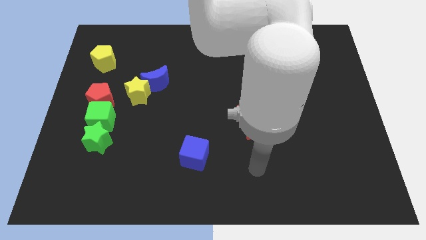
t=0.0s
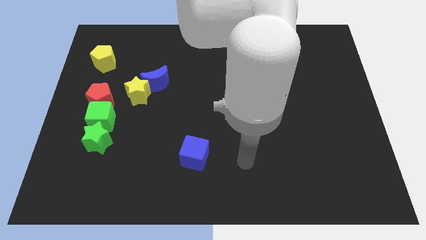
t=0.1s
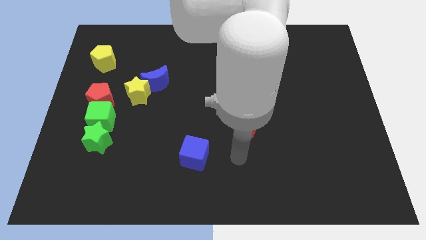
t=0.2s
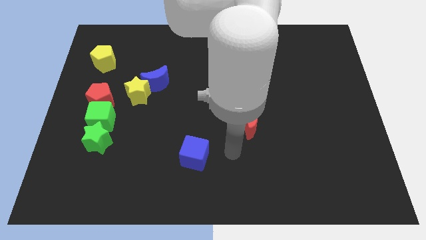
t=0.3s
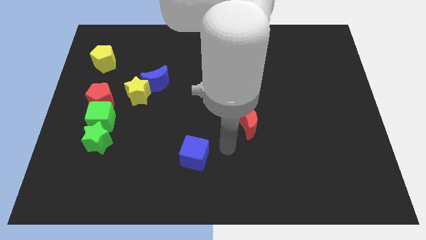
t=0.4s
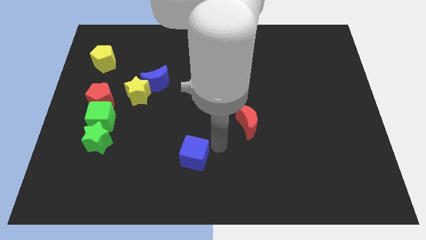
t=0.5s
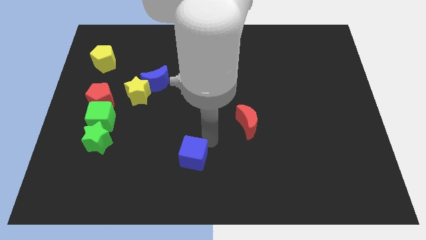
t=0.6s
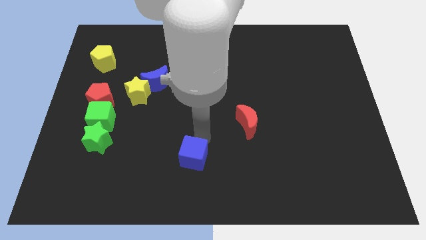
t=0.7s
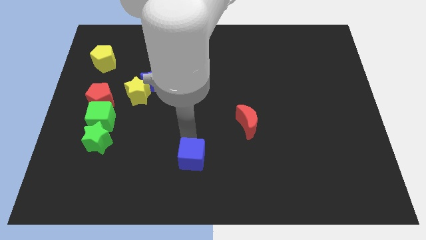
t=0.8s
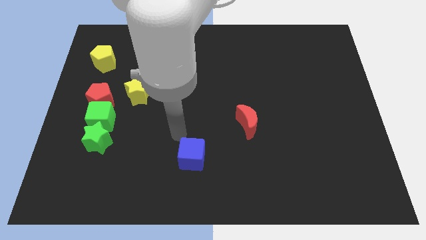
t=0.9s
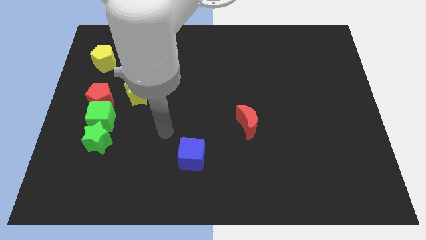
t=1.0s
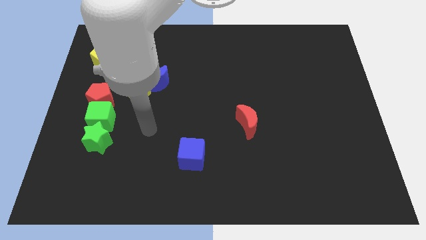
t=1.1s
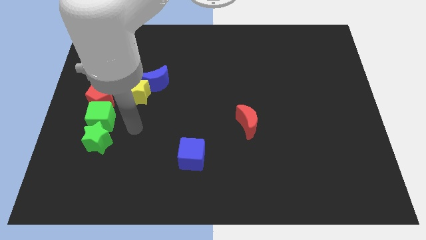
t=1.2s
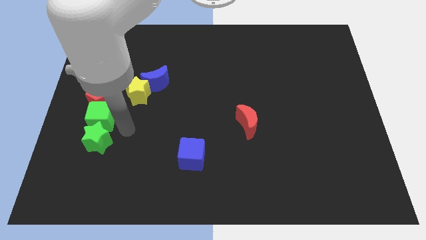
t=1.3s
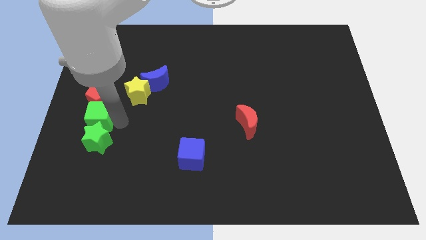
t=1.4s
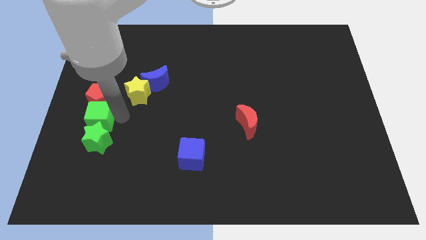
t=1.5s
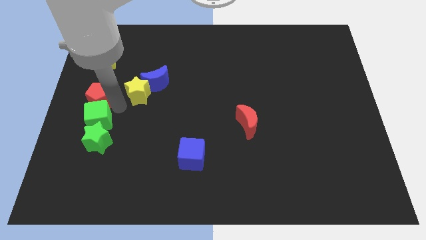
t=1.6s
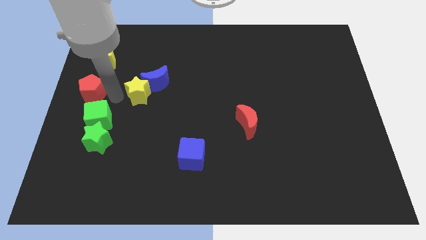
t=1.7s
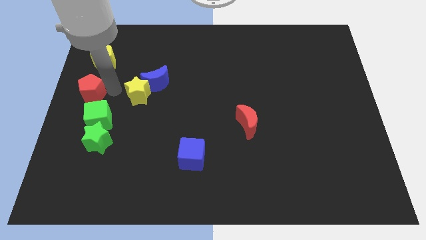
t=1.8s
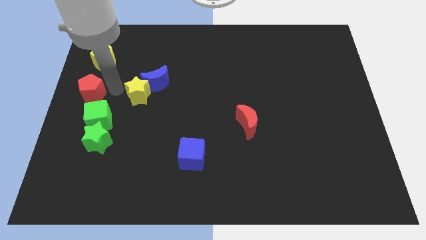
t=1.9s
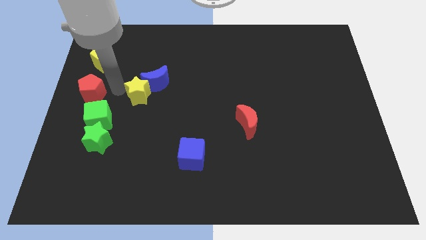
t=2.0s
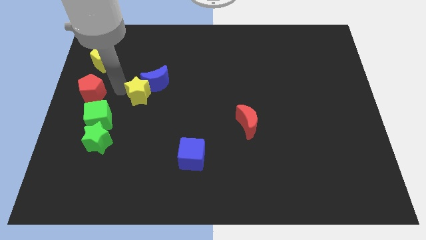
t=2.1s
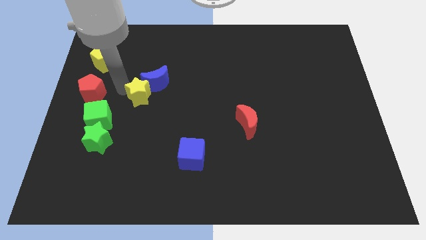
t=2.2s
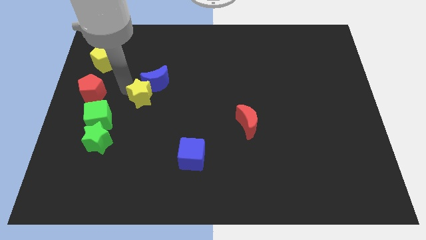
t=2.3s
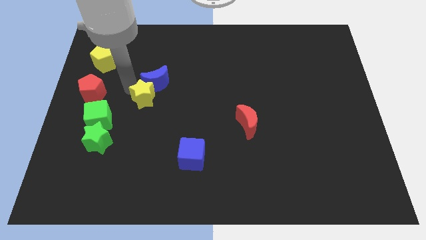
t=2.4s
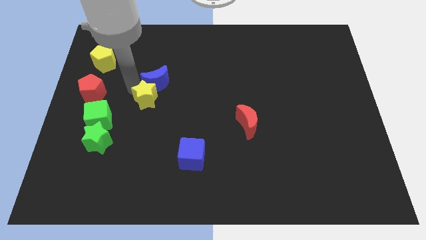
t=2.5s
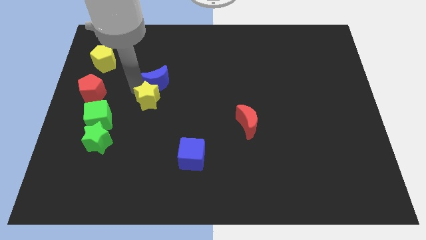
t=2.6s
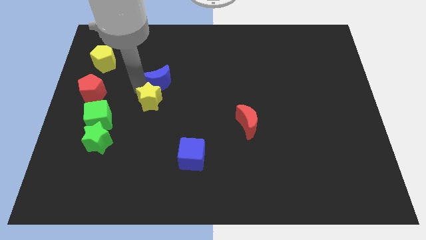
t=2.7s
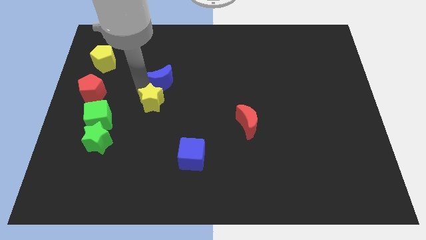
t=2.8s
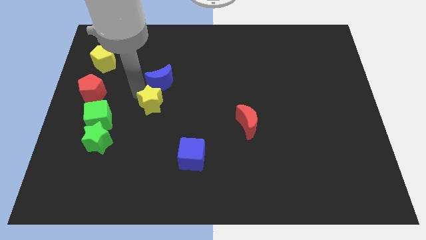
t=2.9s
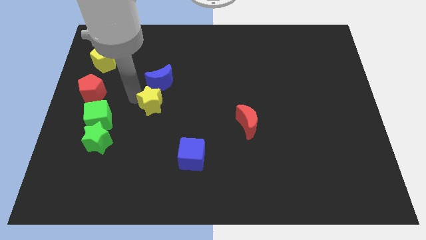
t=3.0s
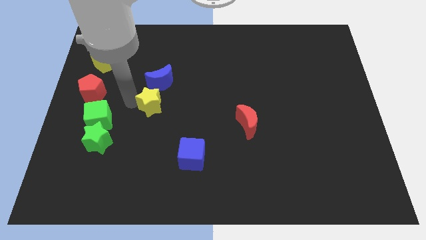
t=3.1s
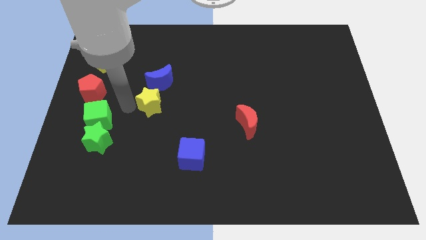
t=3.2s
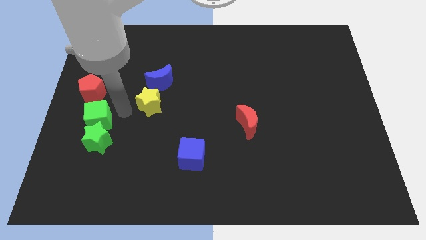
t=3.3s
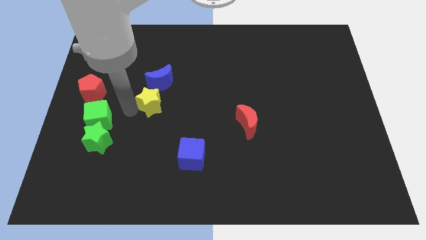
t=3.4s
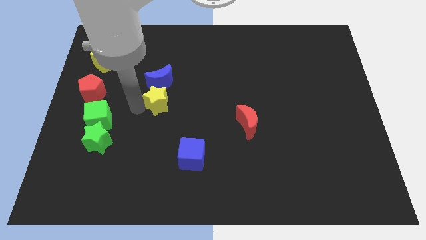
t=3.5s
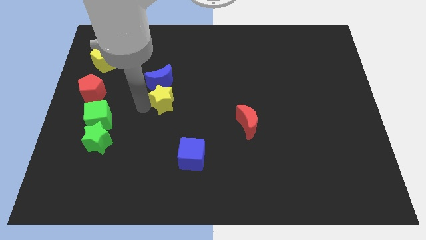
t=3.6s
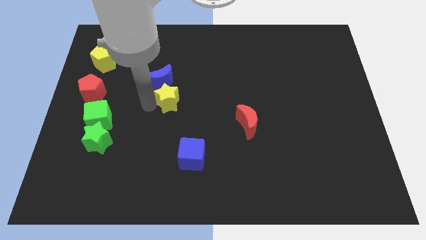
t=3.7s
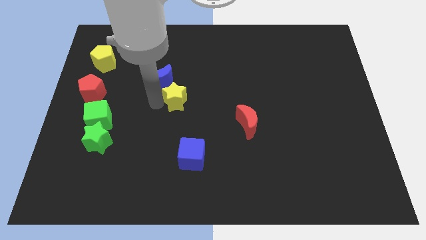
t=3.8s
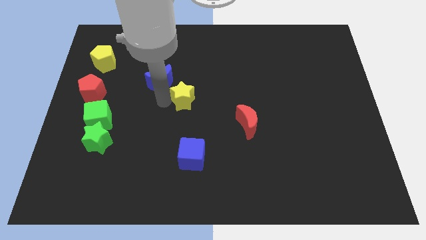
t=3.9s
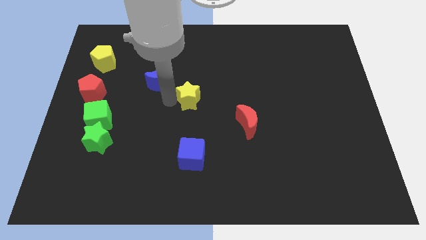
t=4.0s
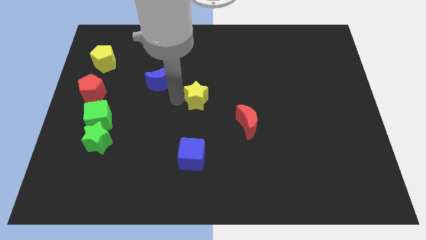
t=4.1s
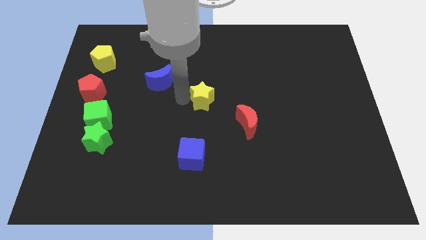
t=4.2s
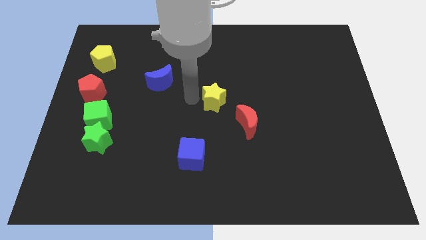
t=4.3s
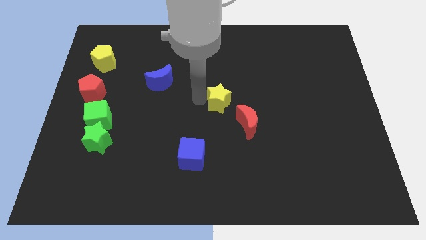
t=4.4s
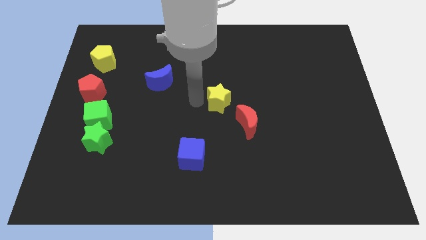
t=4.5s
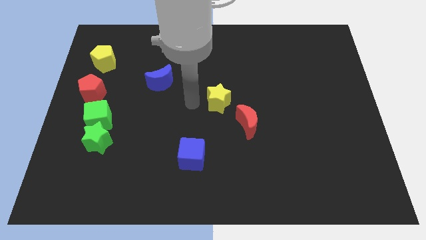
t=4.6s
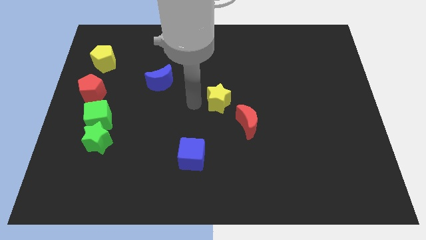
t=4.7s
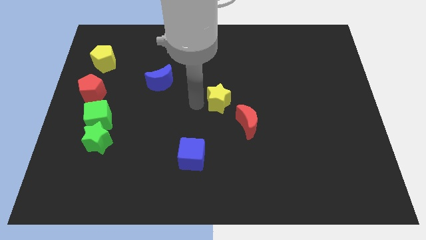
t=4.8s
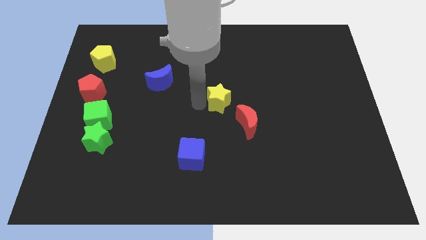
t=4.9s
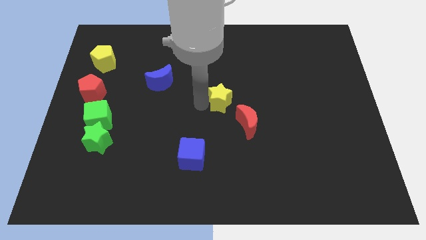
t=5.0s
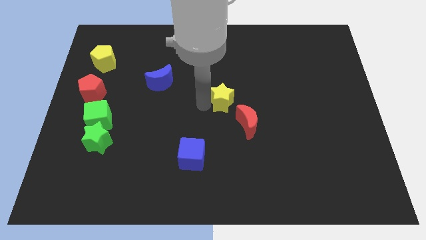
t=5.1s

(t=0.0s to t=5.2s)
slide the yellow star right

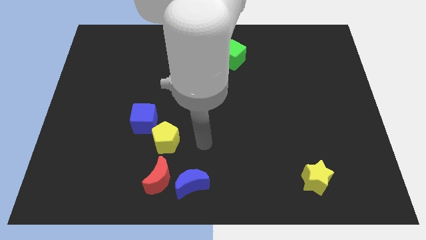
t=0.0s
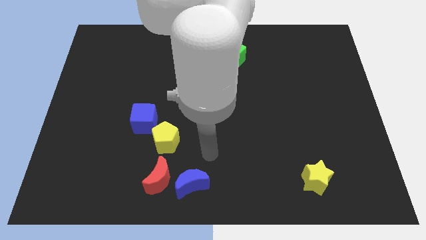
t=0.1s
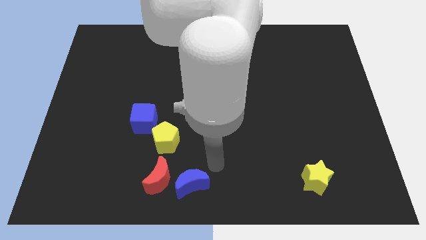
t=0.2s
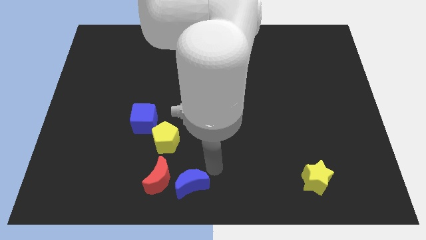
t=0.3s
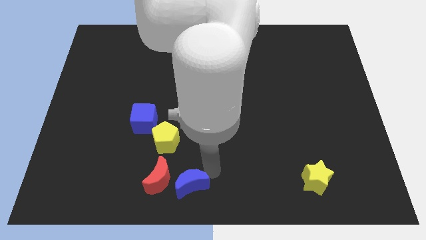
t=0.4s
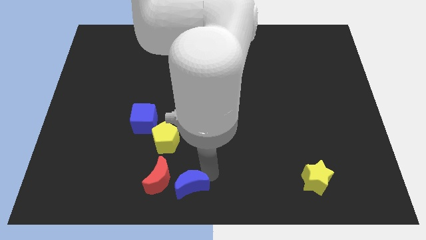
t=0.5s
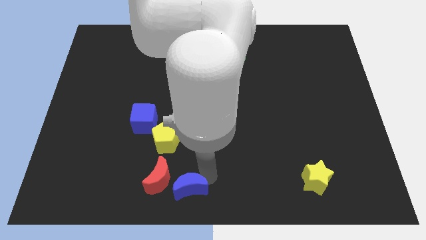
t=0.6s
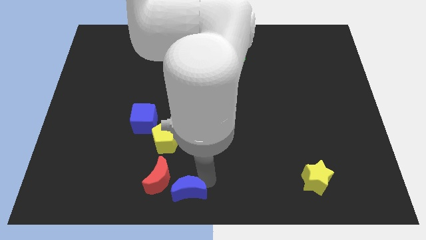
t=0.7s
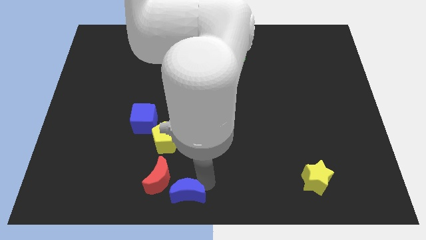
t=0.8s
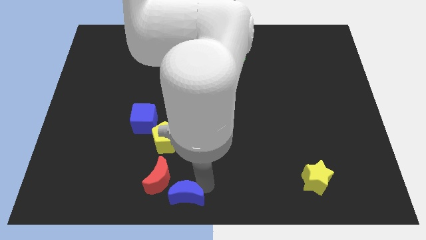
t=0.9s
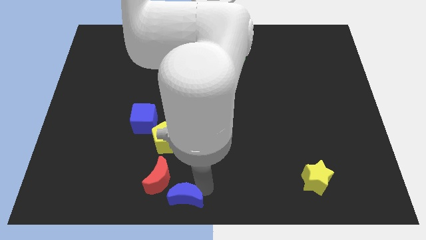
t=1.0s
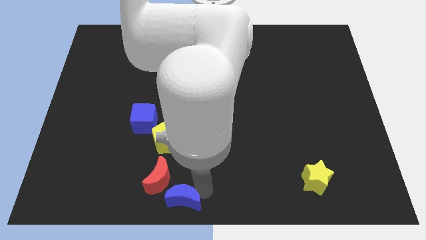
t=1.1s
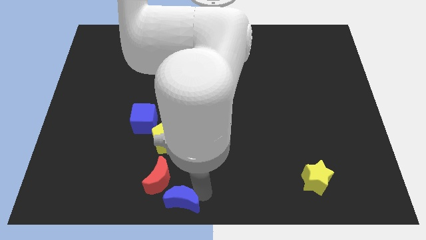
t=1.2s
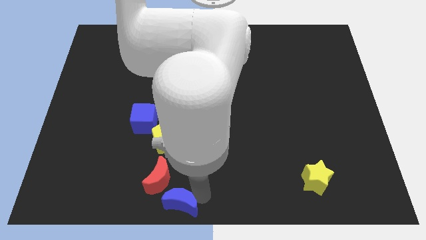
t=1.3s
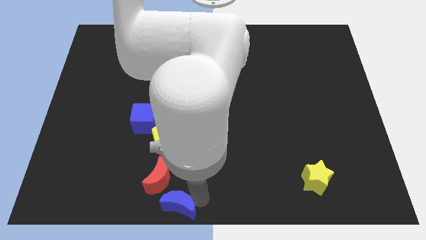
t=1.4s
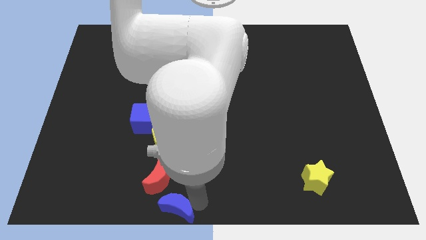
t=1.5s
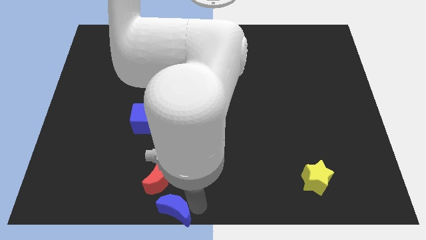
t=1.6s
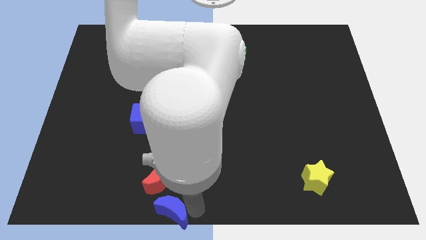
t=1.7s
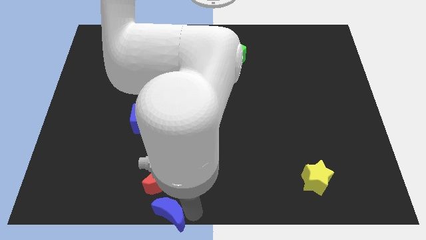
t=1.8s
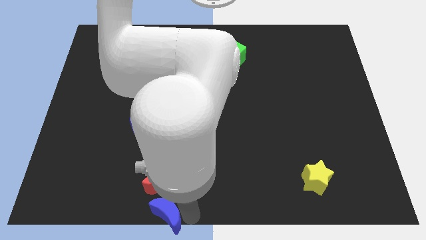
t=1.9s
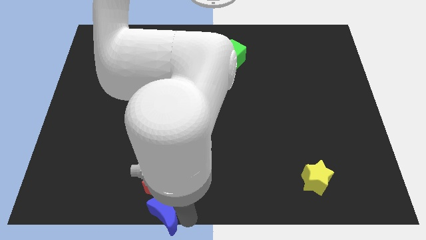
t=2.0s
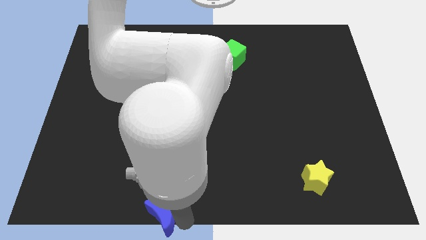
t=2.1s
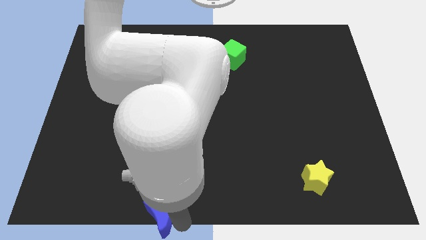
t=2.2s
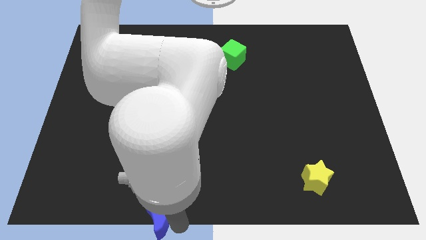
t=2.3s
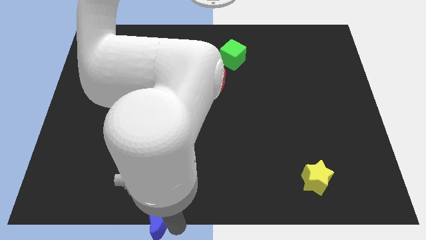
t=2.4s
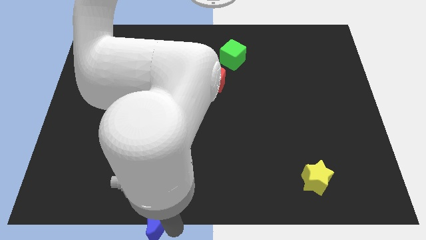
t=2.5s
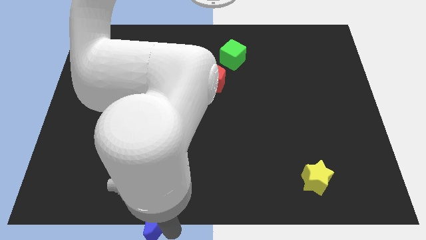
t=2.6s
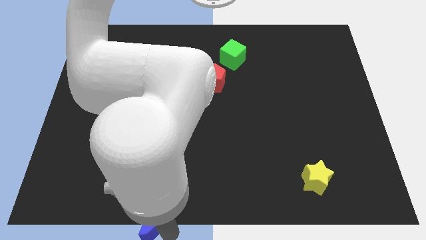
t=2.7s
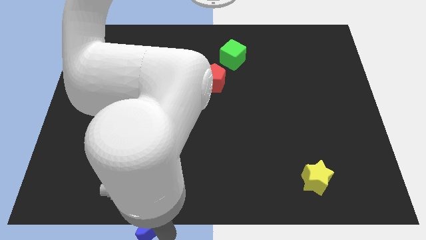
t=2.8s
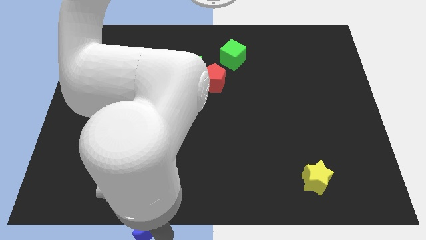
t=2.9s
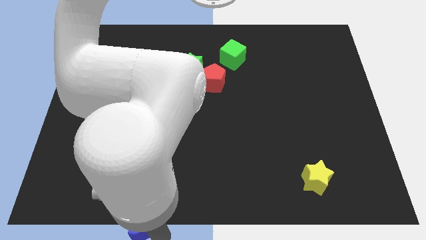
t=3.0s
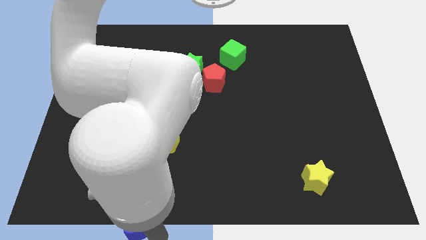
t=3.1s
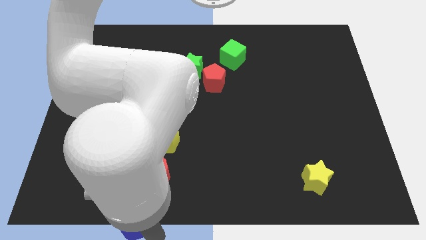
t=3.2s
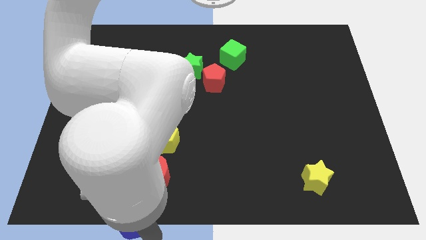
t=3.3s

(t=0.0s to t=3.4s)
slightly move the blue moon to the left
